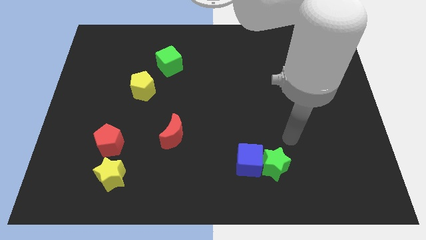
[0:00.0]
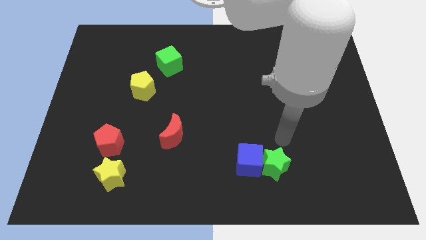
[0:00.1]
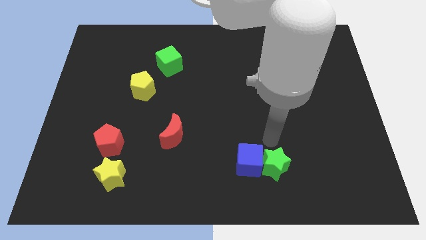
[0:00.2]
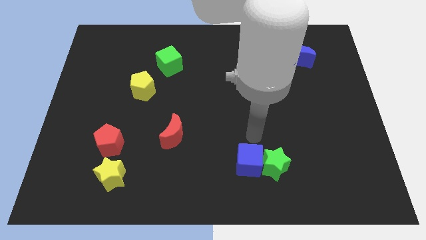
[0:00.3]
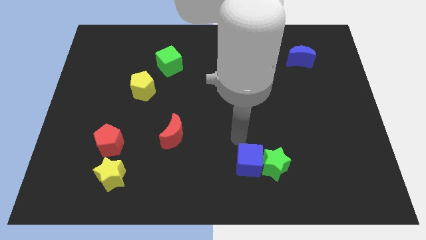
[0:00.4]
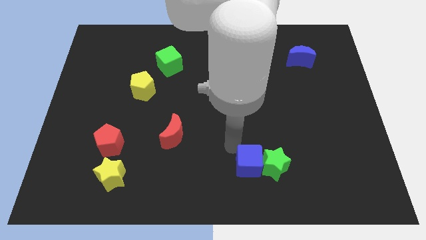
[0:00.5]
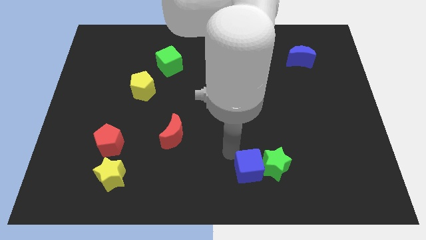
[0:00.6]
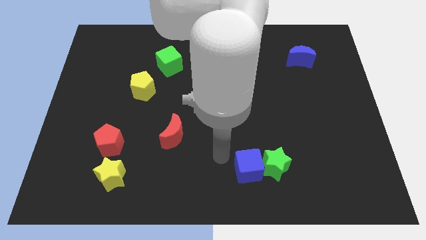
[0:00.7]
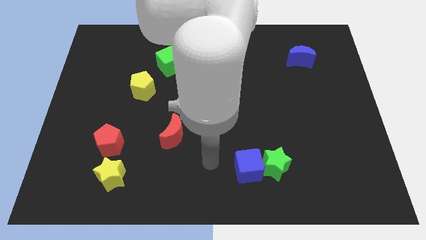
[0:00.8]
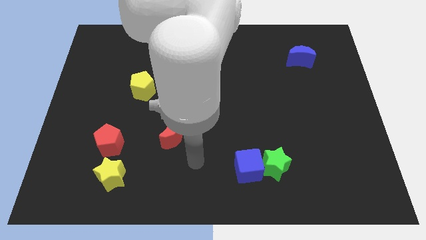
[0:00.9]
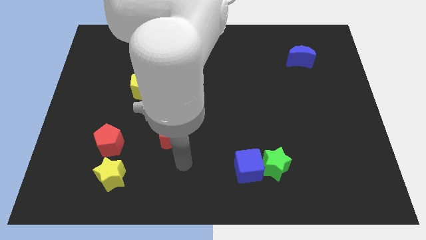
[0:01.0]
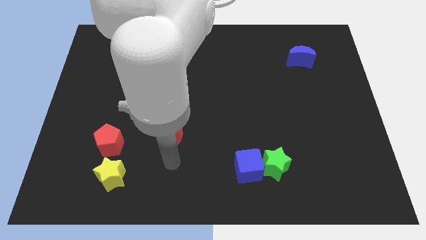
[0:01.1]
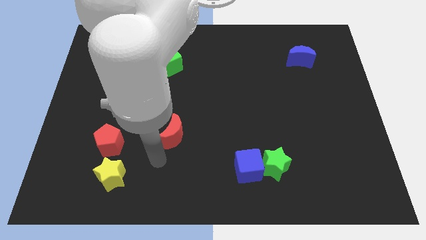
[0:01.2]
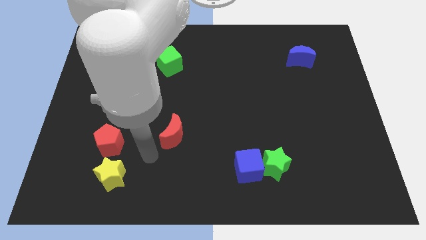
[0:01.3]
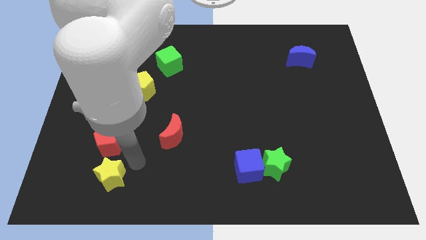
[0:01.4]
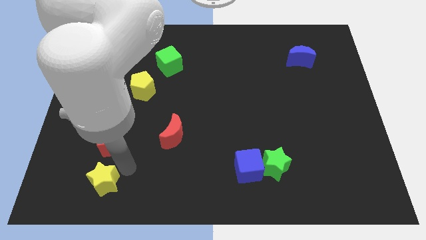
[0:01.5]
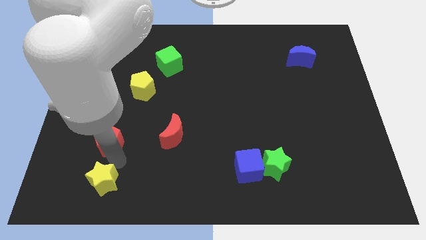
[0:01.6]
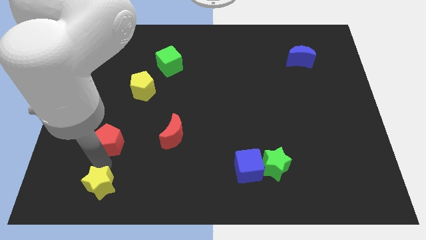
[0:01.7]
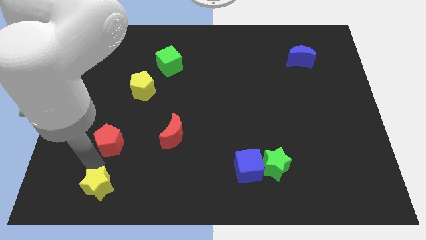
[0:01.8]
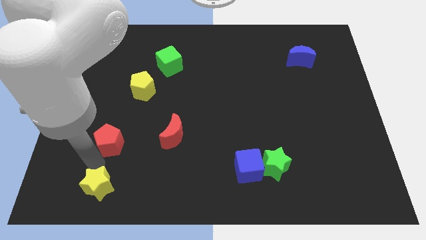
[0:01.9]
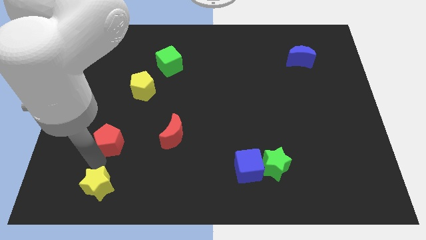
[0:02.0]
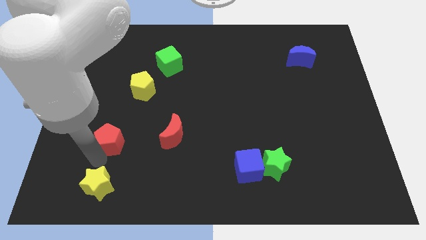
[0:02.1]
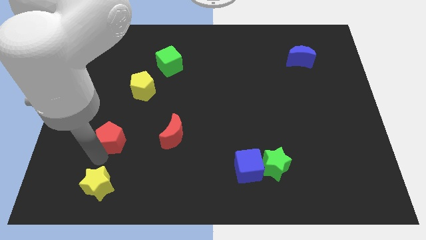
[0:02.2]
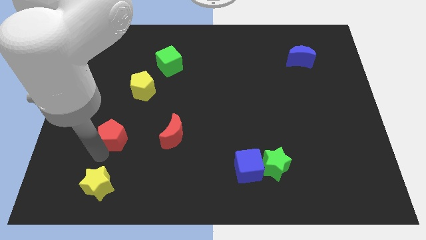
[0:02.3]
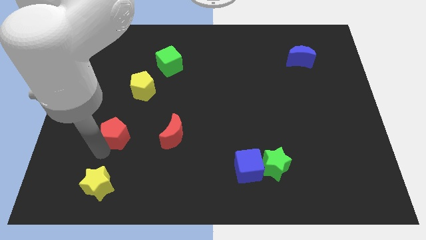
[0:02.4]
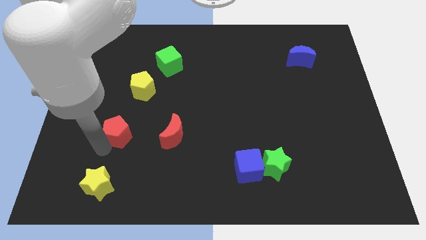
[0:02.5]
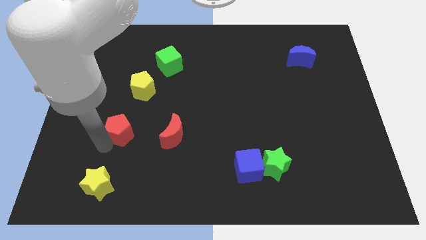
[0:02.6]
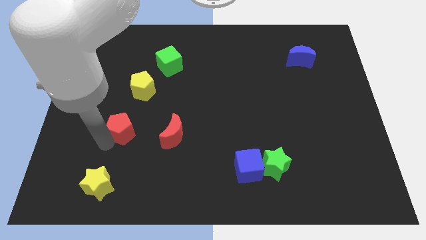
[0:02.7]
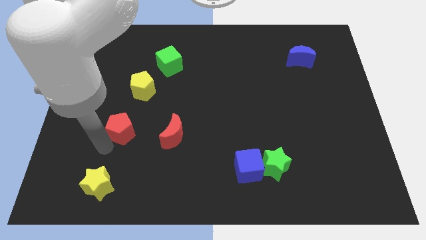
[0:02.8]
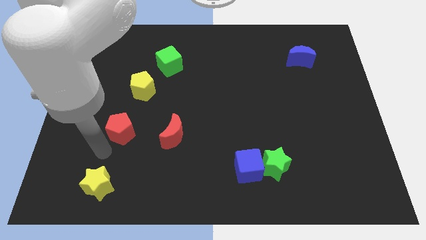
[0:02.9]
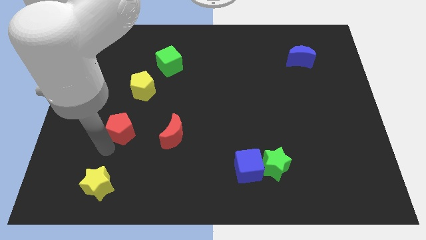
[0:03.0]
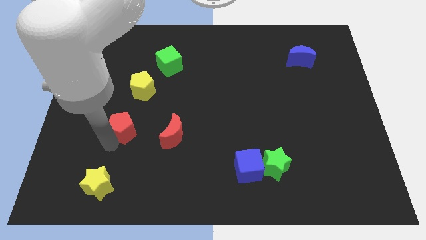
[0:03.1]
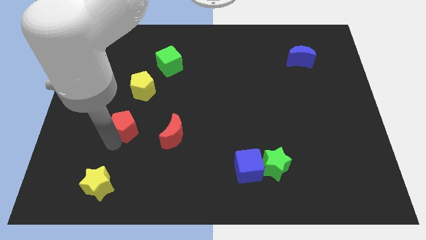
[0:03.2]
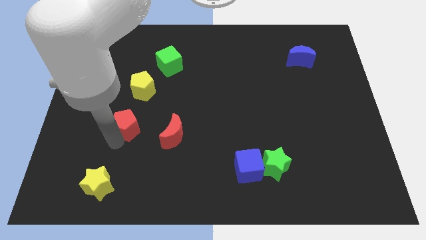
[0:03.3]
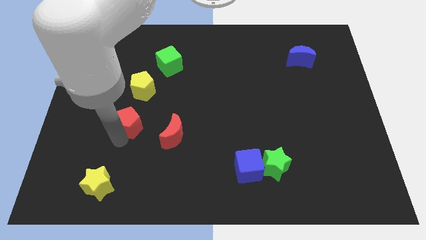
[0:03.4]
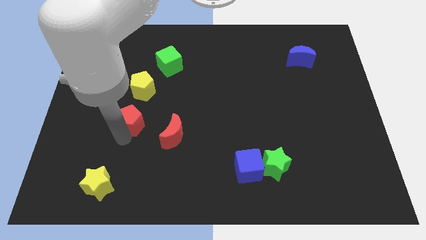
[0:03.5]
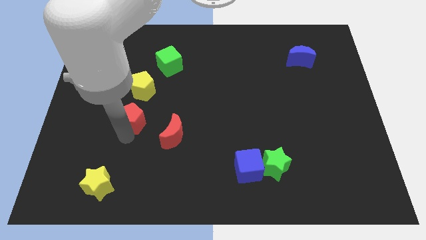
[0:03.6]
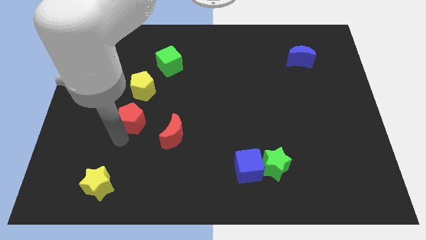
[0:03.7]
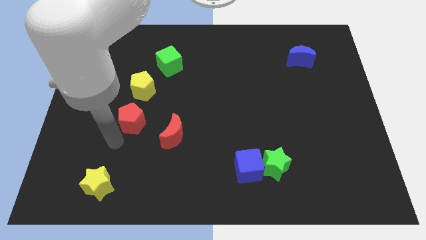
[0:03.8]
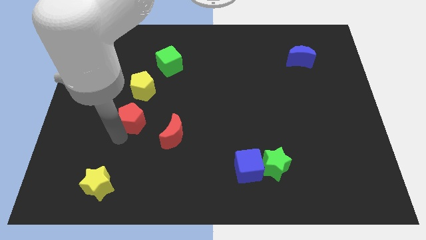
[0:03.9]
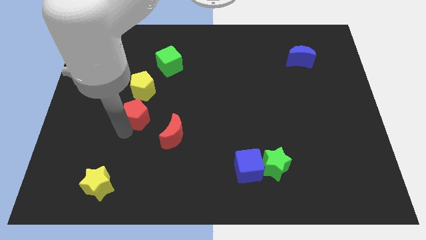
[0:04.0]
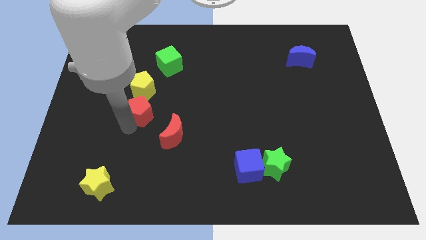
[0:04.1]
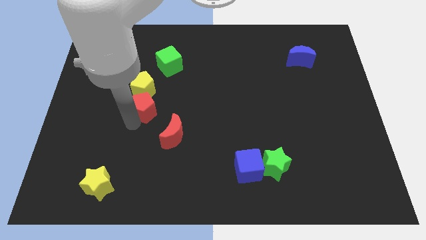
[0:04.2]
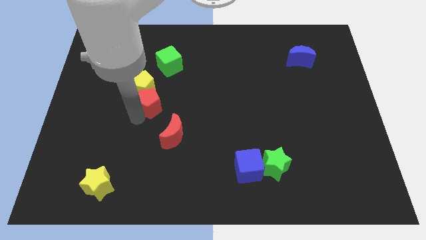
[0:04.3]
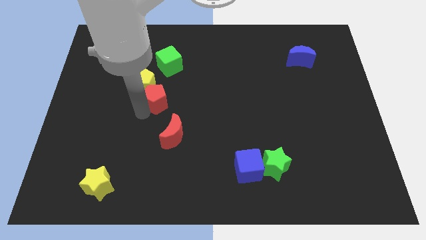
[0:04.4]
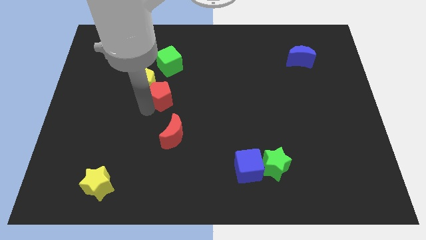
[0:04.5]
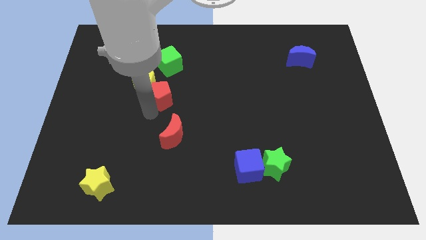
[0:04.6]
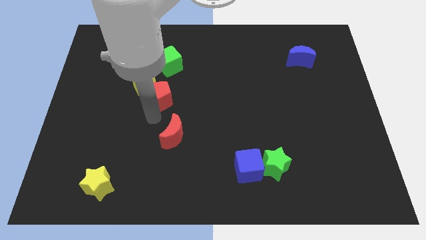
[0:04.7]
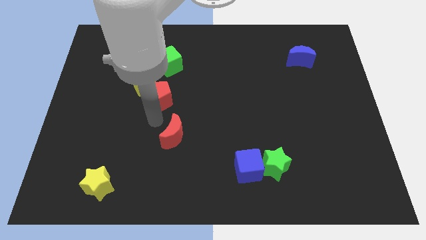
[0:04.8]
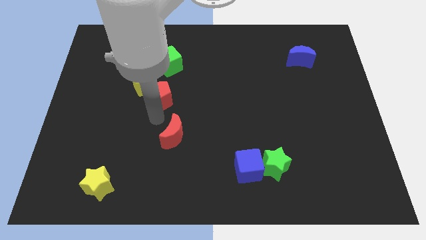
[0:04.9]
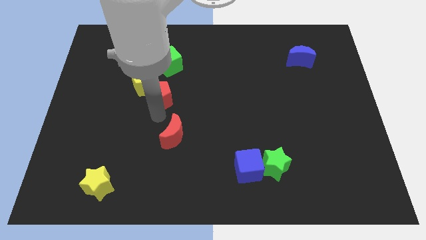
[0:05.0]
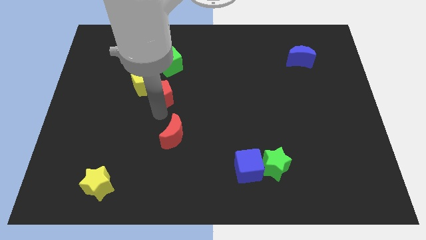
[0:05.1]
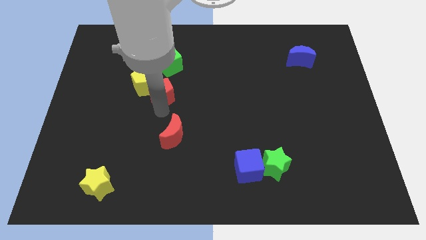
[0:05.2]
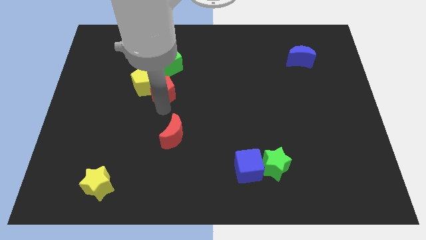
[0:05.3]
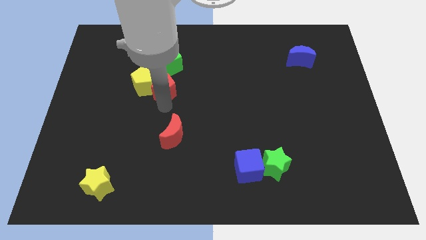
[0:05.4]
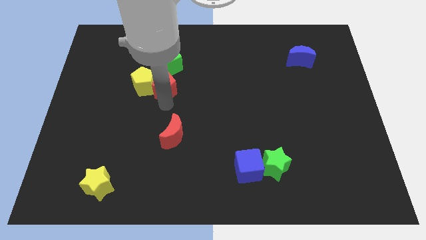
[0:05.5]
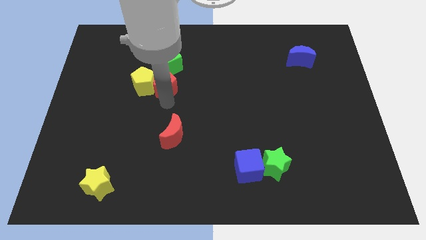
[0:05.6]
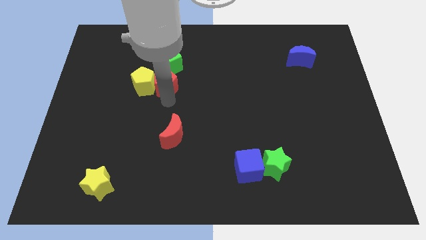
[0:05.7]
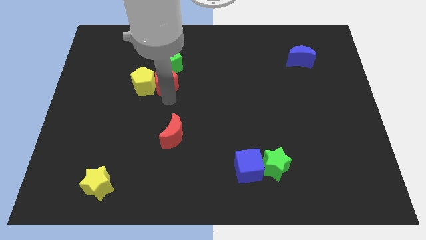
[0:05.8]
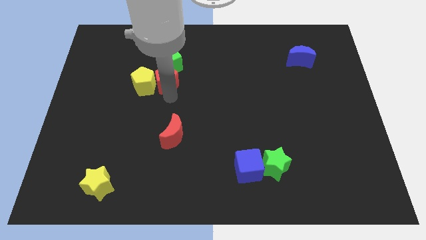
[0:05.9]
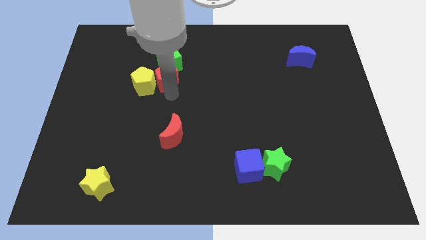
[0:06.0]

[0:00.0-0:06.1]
move the red pentagon to the green cube

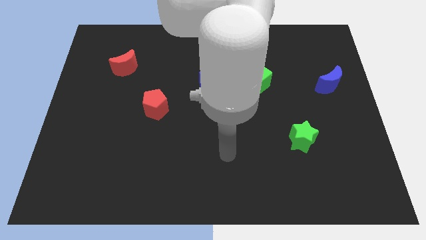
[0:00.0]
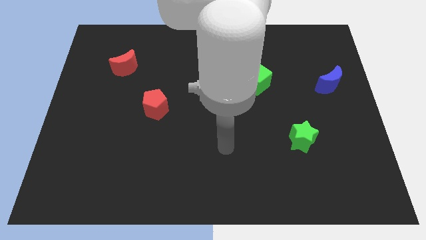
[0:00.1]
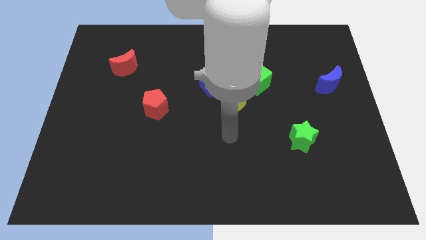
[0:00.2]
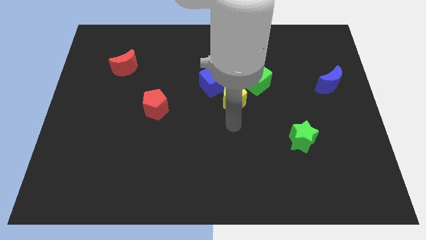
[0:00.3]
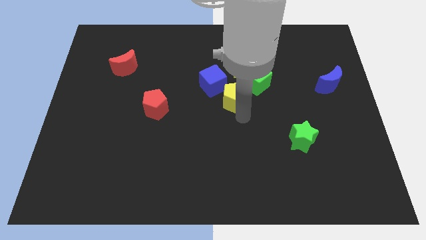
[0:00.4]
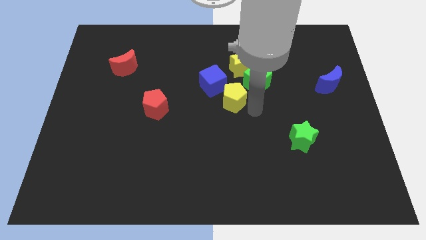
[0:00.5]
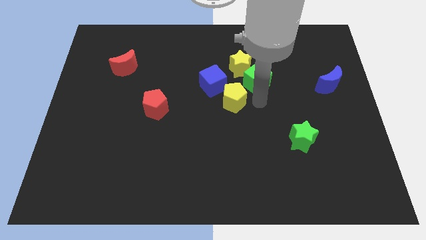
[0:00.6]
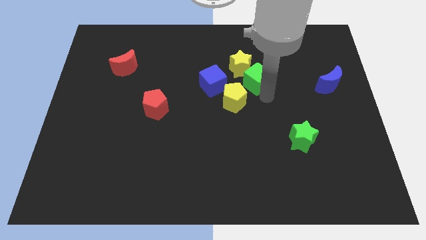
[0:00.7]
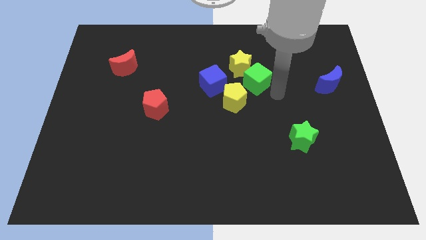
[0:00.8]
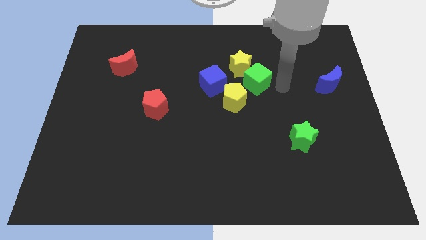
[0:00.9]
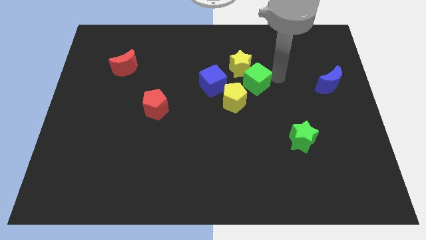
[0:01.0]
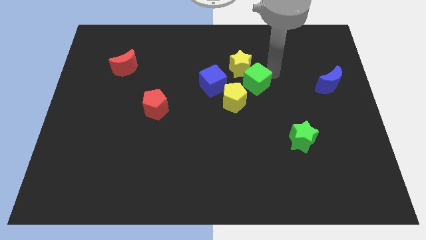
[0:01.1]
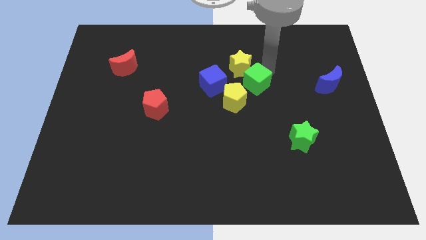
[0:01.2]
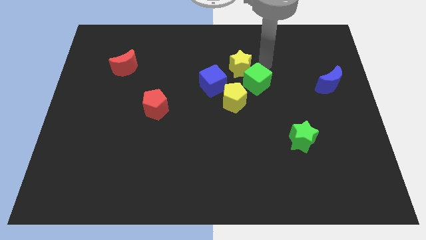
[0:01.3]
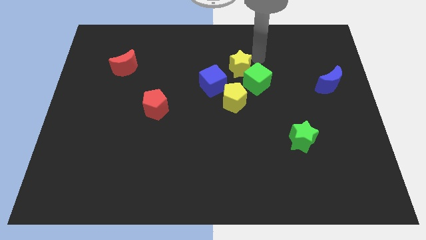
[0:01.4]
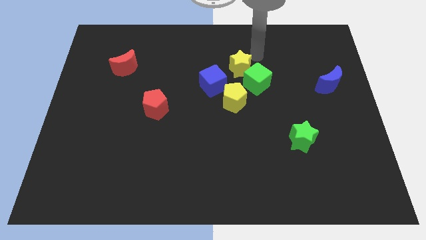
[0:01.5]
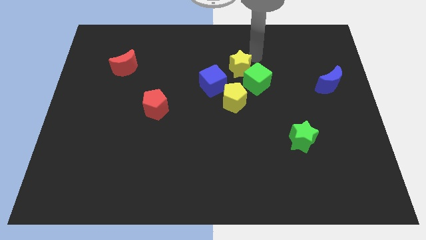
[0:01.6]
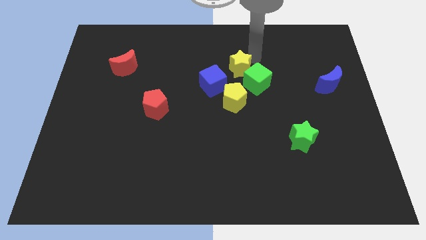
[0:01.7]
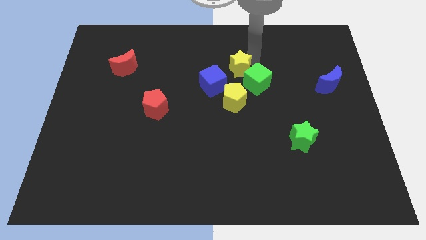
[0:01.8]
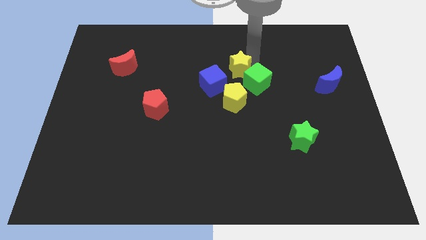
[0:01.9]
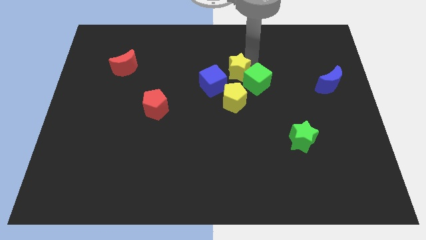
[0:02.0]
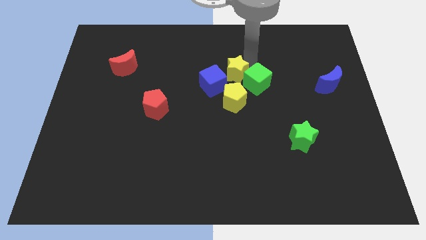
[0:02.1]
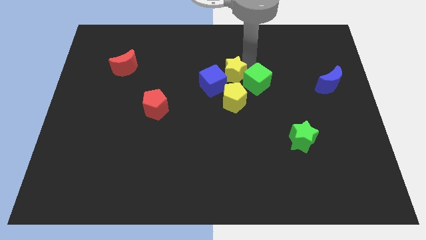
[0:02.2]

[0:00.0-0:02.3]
move the yellow star towards the blue cube
